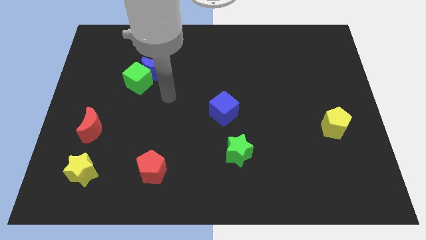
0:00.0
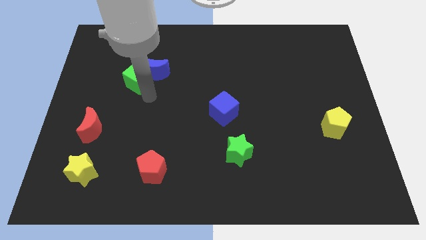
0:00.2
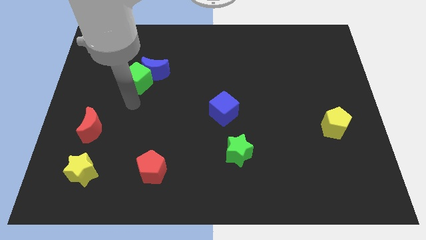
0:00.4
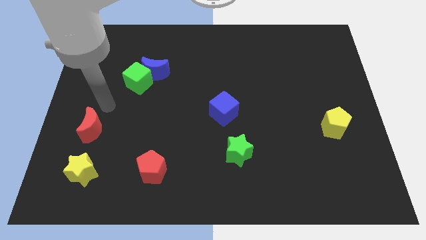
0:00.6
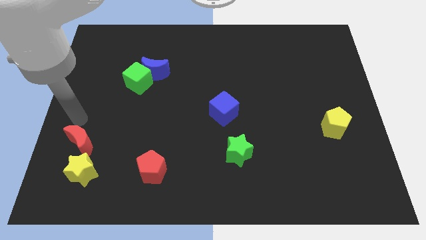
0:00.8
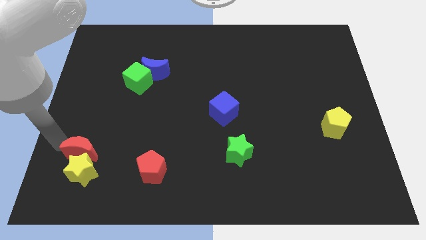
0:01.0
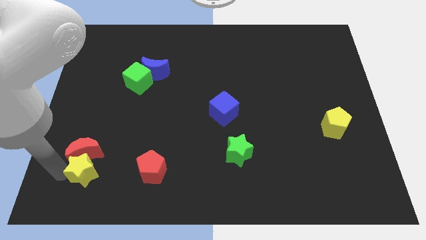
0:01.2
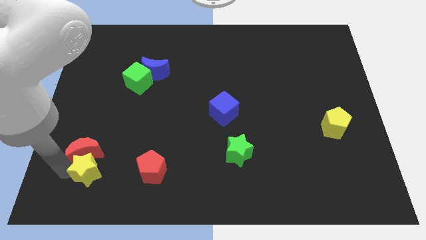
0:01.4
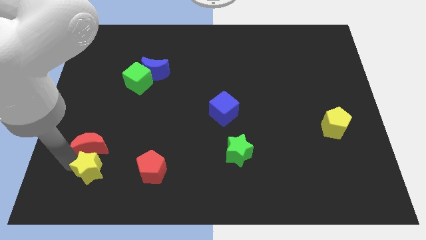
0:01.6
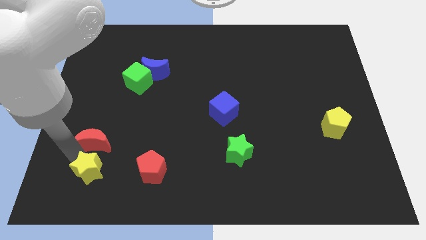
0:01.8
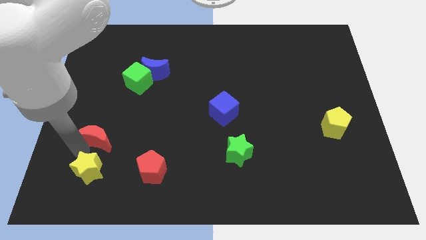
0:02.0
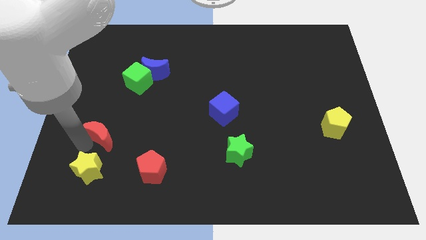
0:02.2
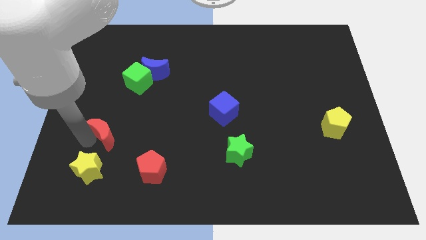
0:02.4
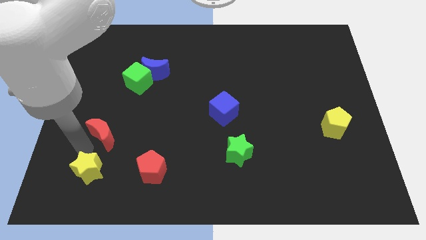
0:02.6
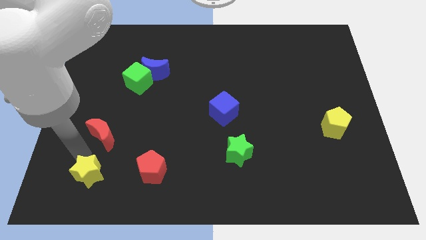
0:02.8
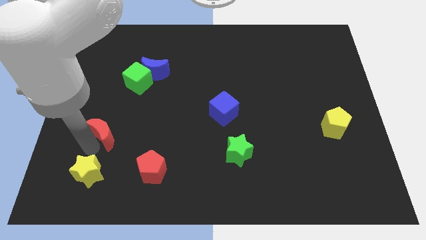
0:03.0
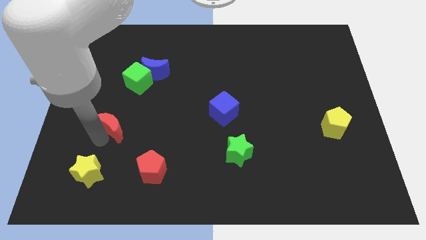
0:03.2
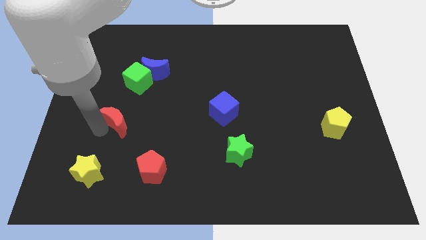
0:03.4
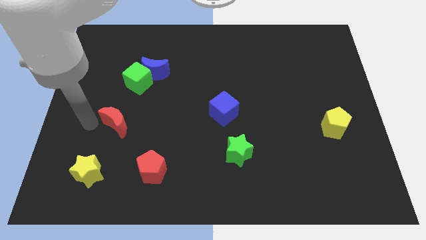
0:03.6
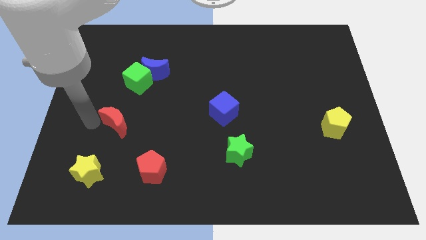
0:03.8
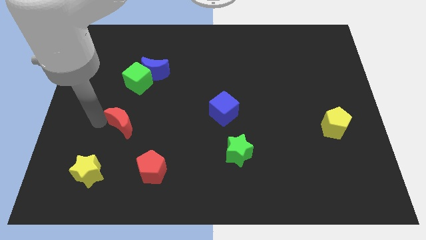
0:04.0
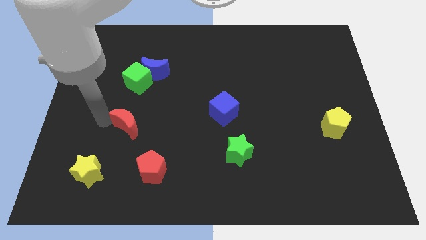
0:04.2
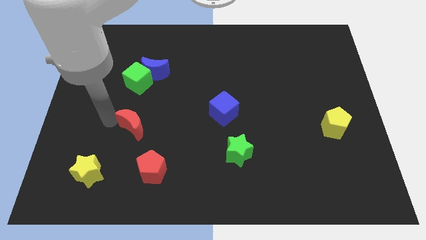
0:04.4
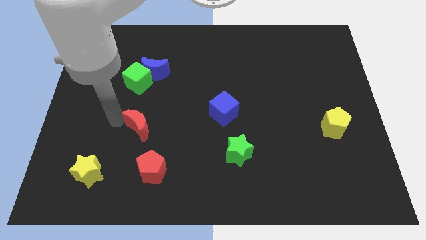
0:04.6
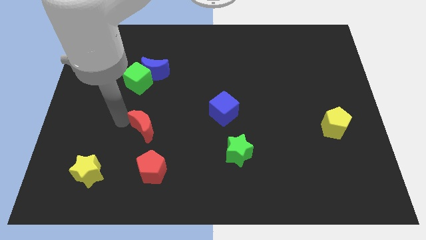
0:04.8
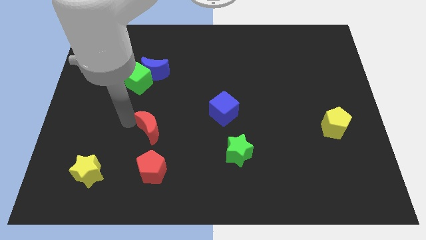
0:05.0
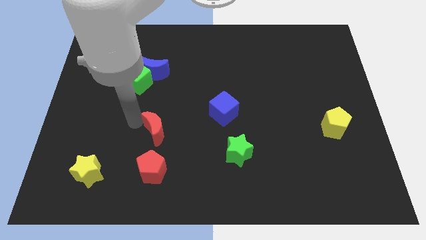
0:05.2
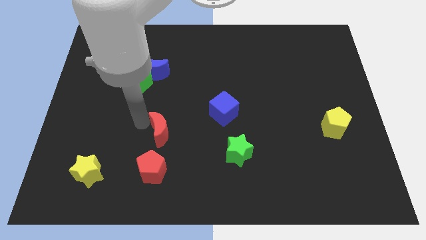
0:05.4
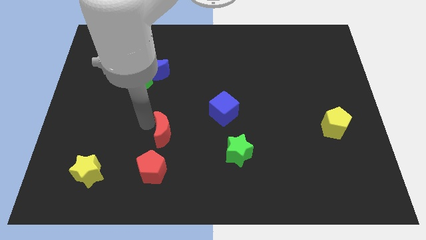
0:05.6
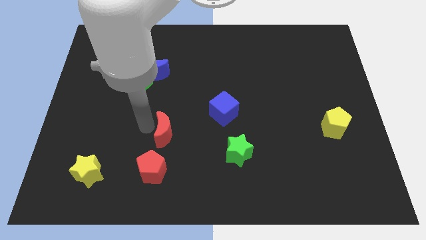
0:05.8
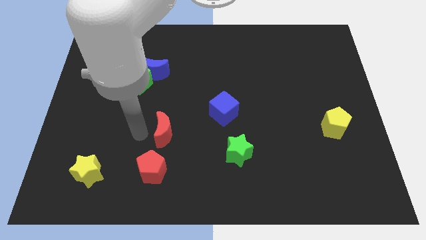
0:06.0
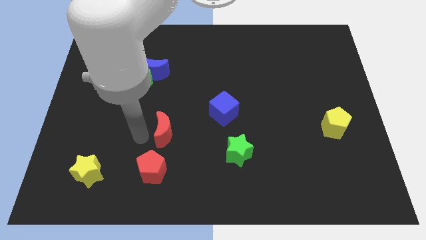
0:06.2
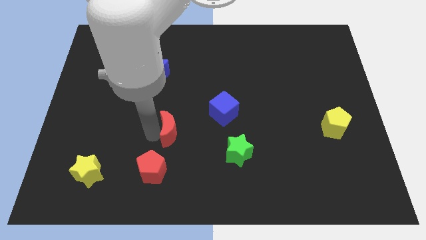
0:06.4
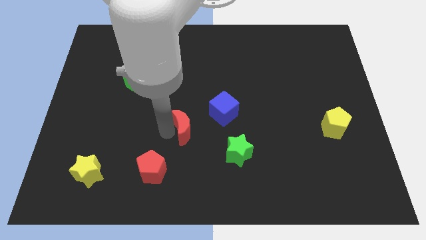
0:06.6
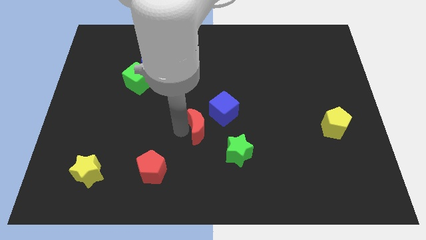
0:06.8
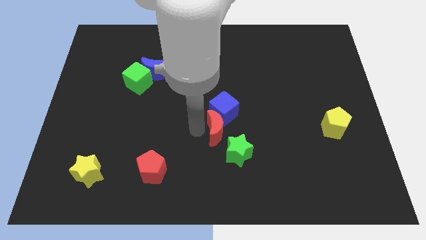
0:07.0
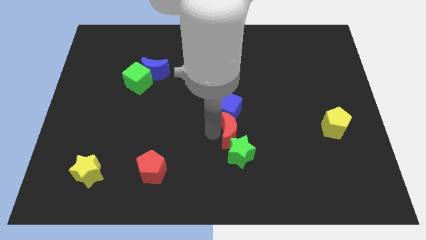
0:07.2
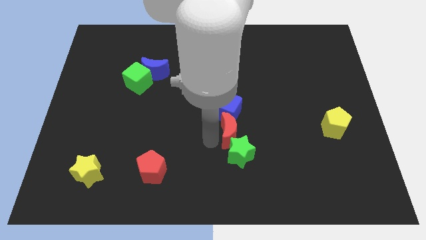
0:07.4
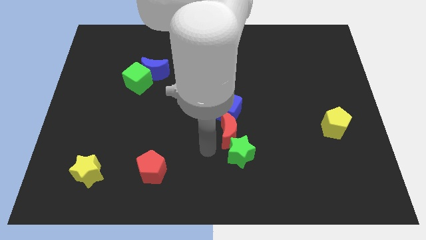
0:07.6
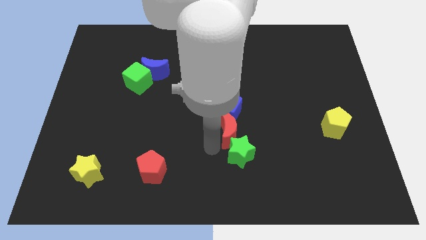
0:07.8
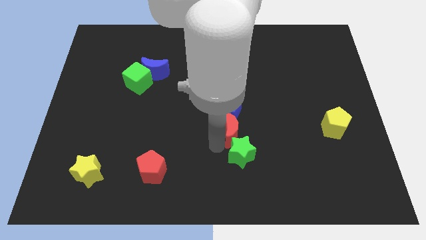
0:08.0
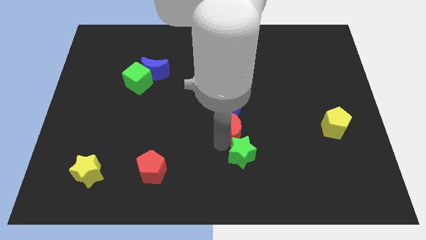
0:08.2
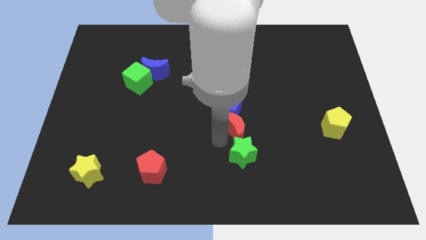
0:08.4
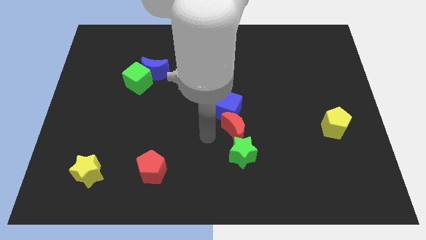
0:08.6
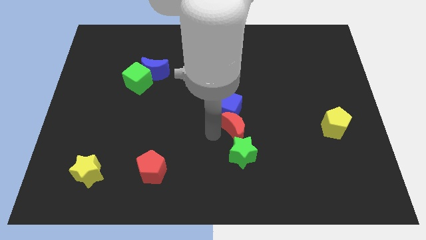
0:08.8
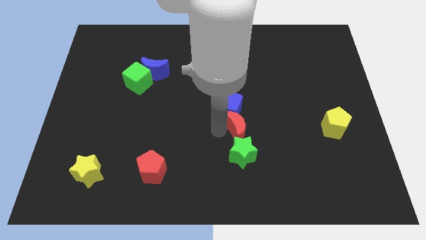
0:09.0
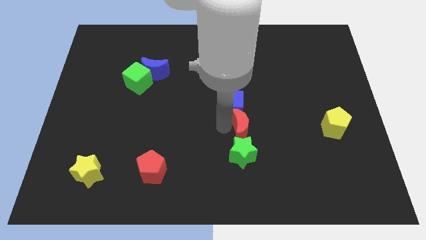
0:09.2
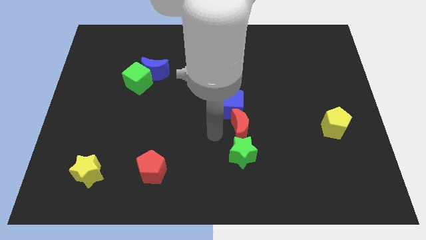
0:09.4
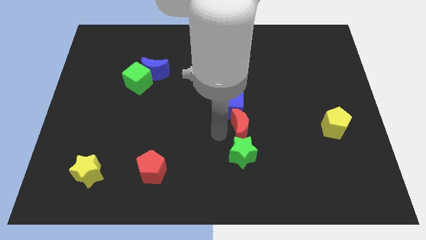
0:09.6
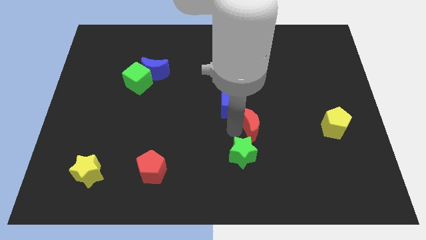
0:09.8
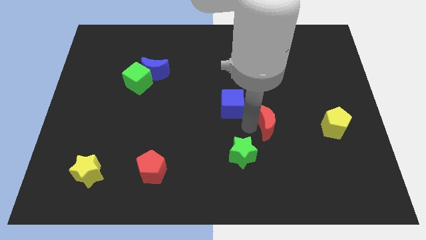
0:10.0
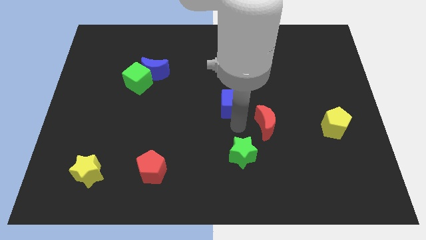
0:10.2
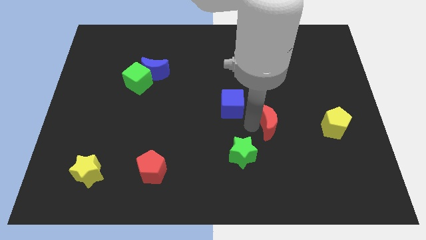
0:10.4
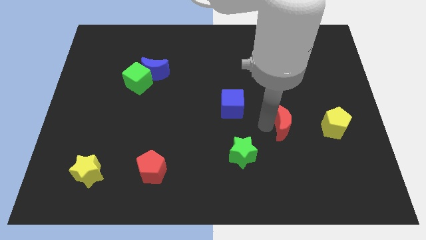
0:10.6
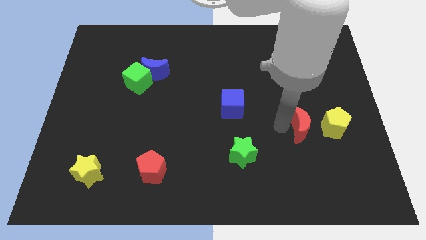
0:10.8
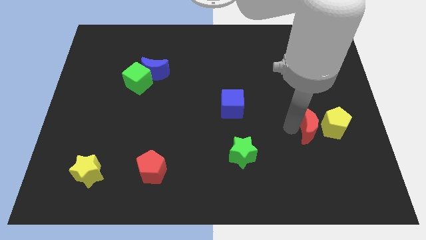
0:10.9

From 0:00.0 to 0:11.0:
move the red moon close to the yellow pentagon

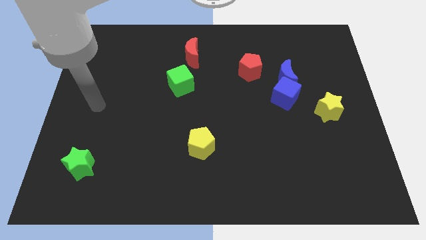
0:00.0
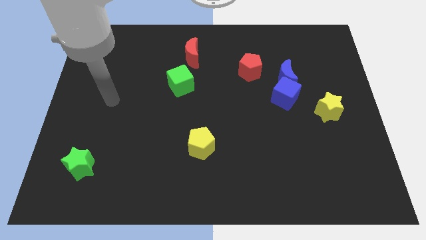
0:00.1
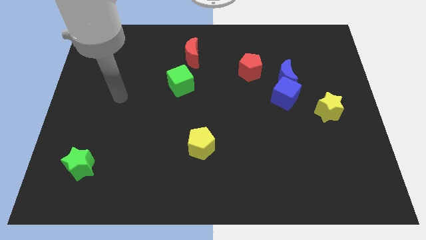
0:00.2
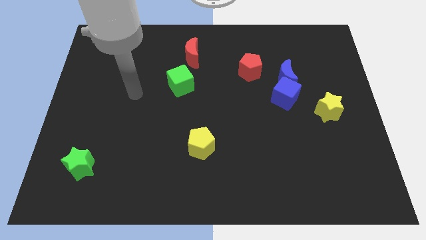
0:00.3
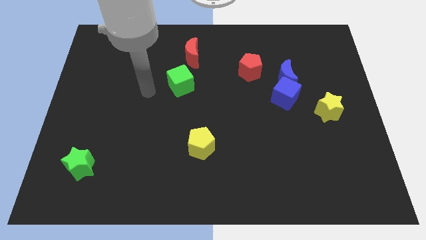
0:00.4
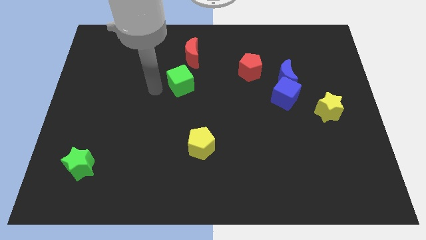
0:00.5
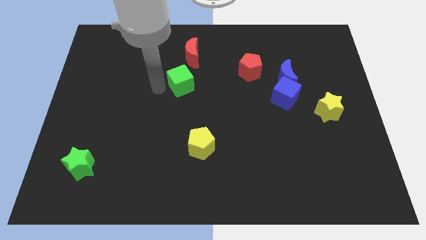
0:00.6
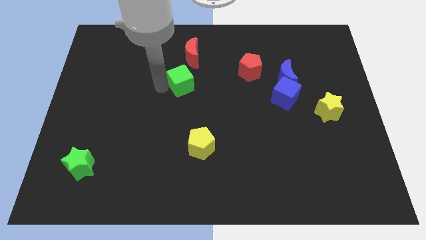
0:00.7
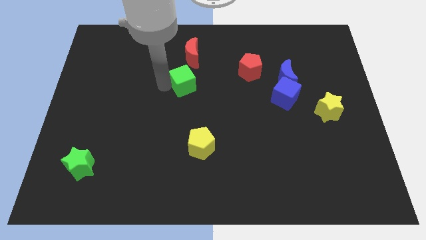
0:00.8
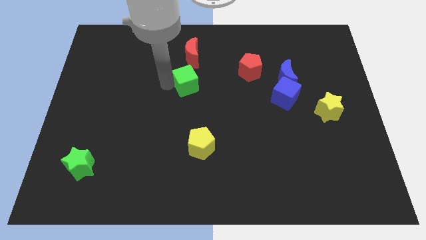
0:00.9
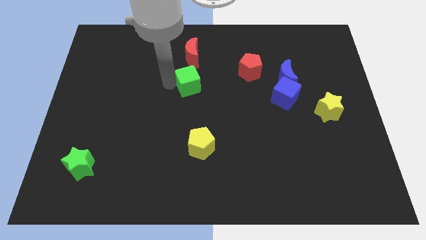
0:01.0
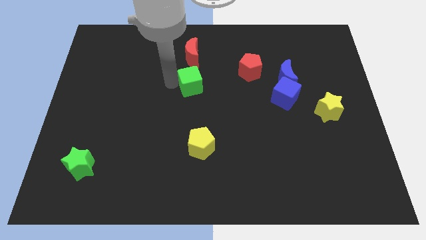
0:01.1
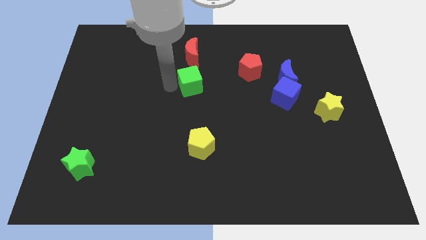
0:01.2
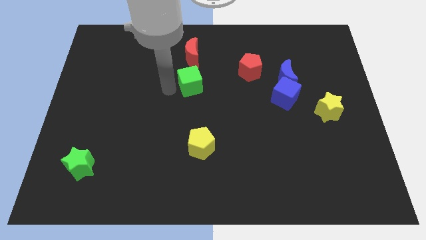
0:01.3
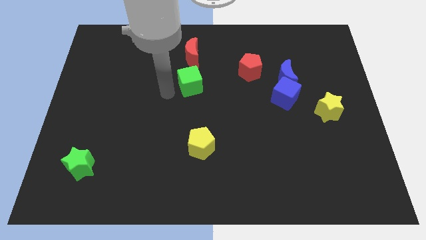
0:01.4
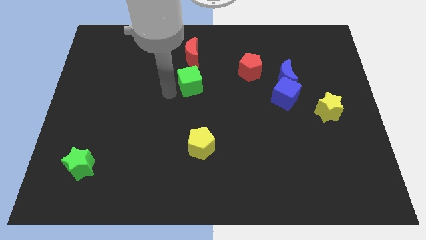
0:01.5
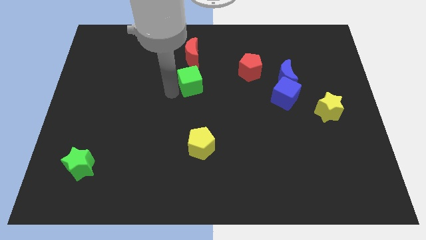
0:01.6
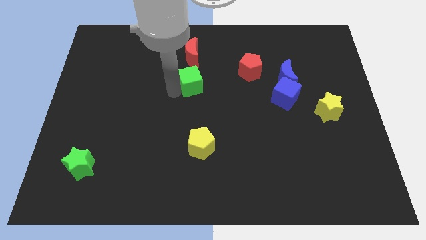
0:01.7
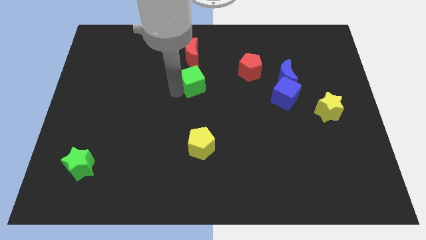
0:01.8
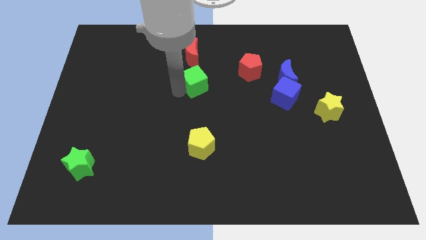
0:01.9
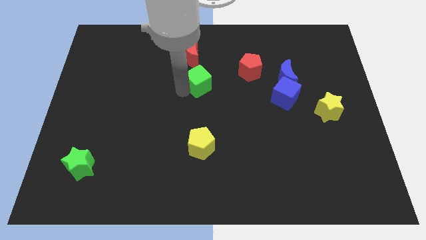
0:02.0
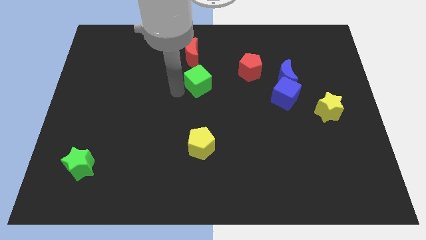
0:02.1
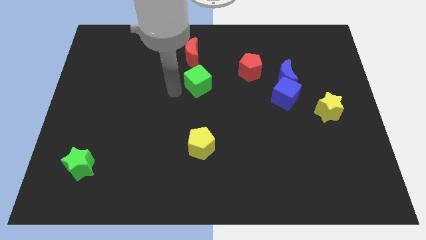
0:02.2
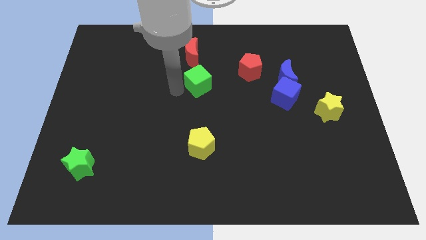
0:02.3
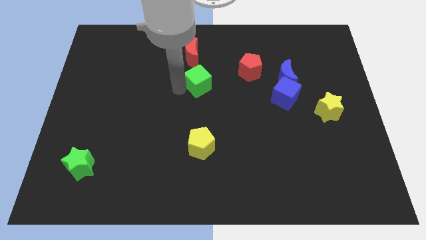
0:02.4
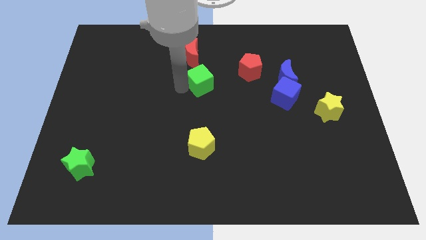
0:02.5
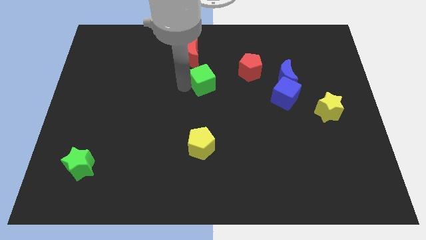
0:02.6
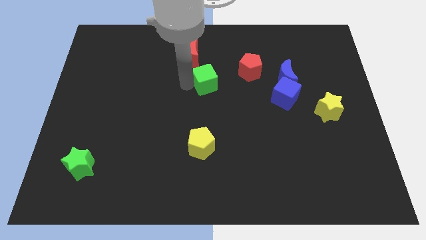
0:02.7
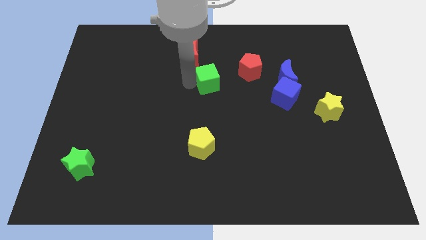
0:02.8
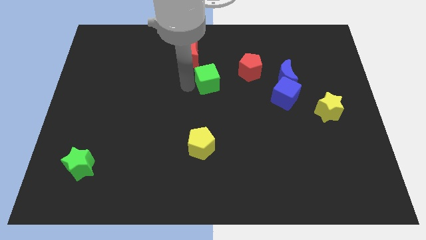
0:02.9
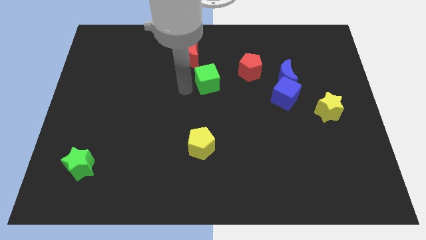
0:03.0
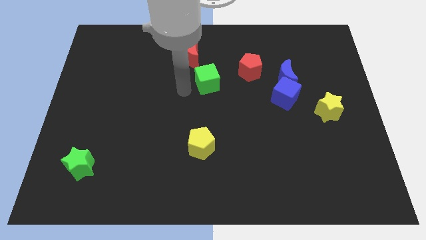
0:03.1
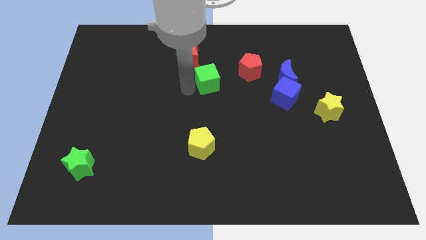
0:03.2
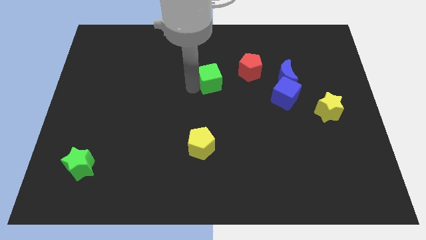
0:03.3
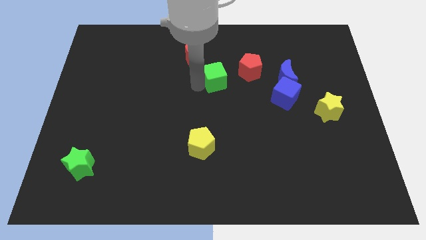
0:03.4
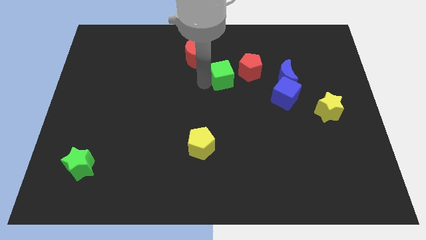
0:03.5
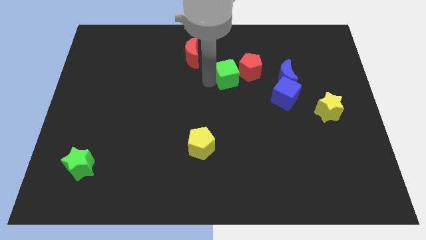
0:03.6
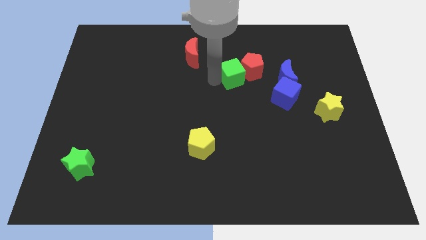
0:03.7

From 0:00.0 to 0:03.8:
move the green cube close to the red pentagon
